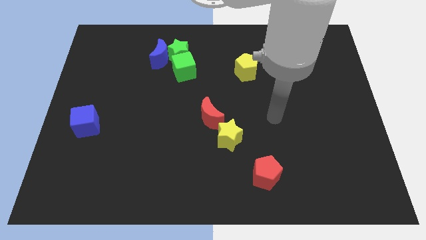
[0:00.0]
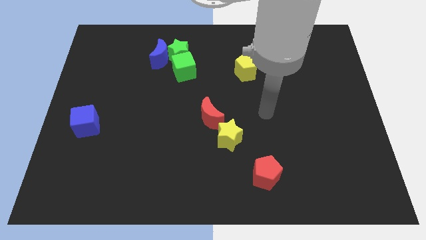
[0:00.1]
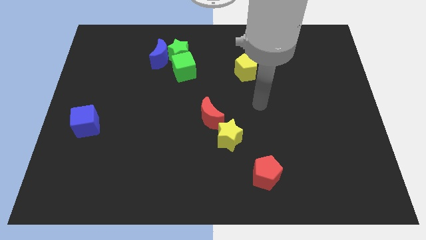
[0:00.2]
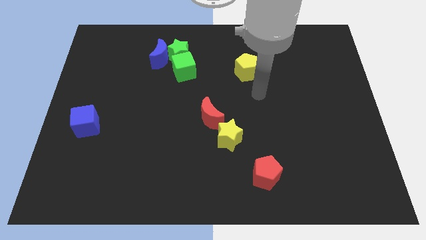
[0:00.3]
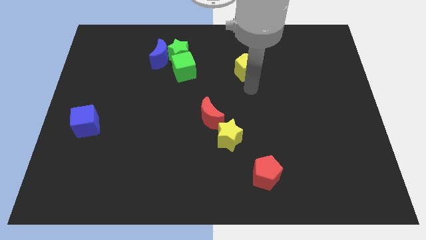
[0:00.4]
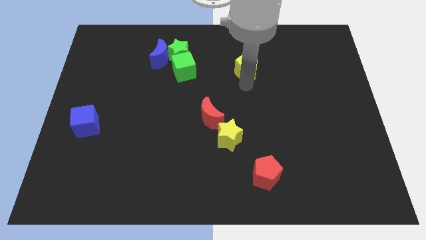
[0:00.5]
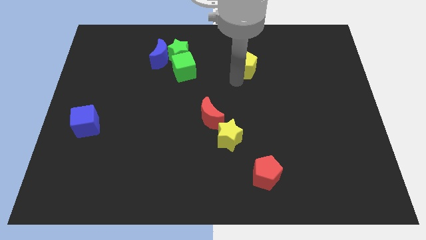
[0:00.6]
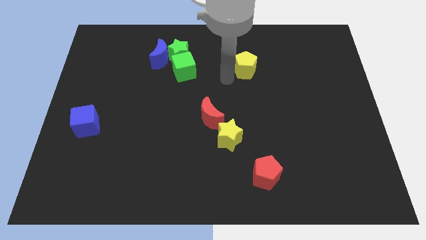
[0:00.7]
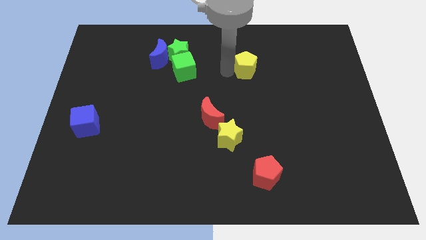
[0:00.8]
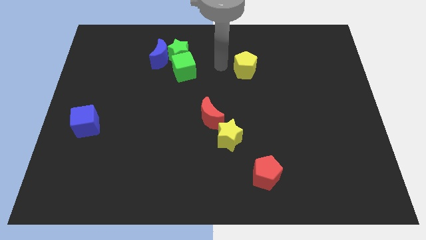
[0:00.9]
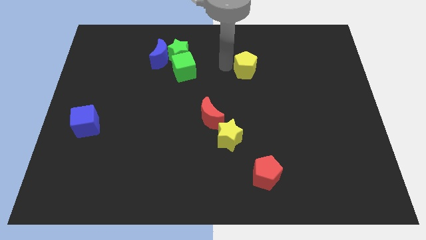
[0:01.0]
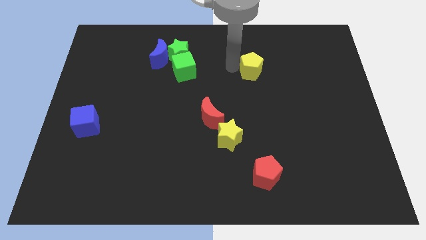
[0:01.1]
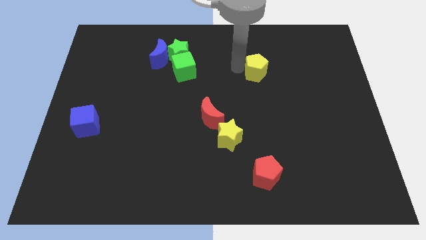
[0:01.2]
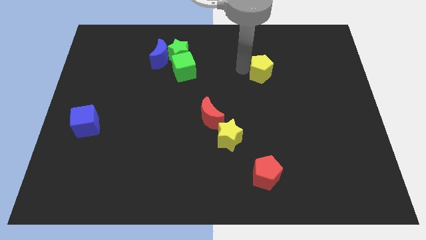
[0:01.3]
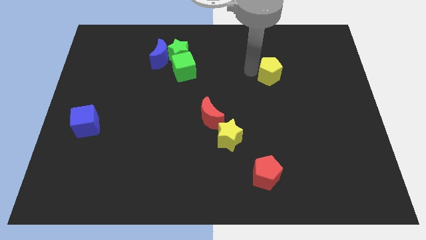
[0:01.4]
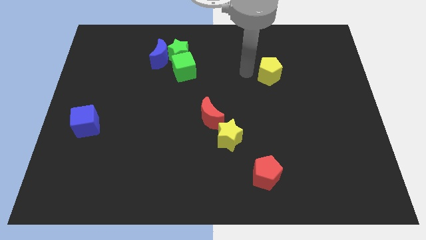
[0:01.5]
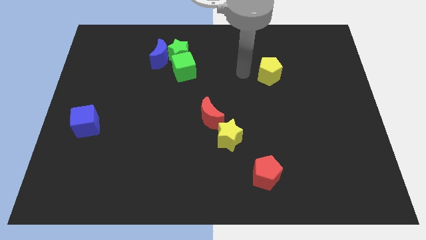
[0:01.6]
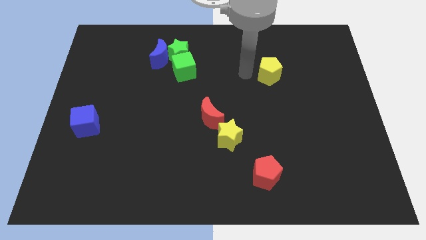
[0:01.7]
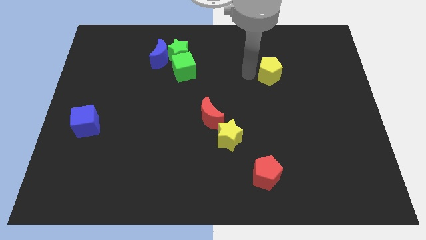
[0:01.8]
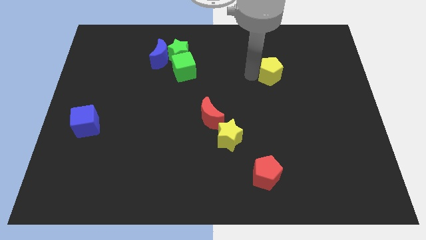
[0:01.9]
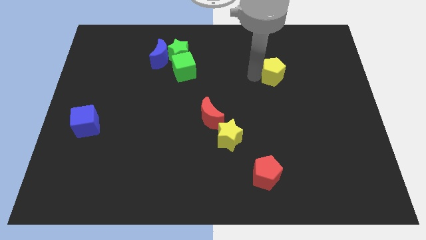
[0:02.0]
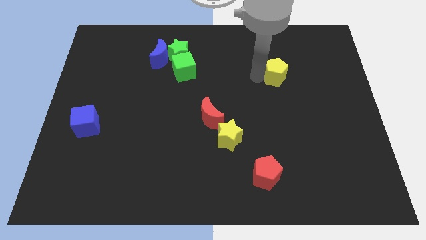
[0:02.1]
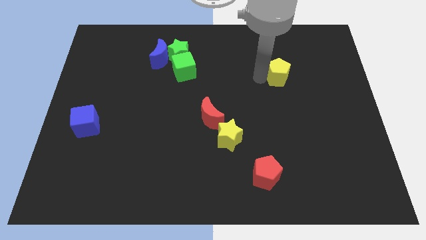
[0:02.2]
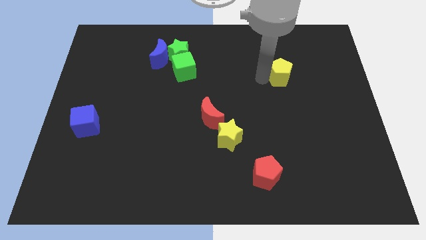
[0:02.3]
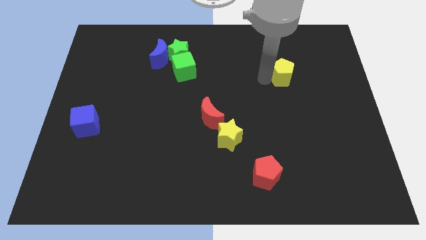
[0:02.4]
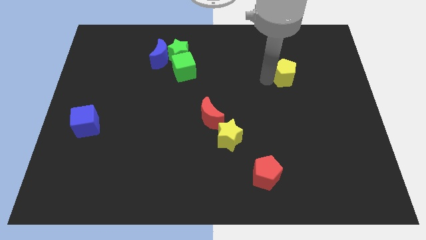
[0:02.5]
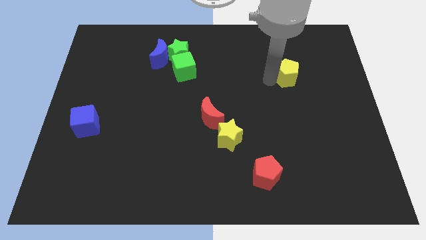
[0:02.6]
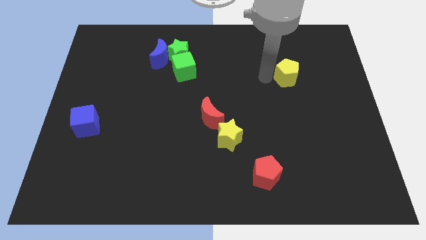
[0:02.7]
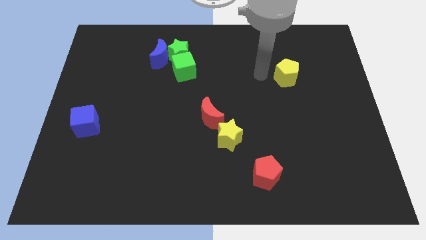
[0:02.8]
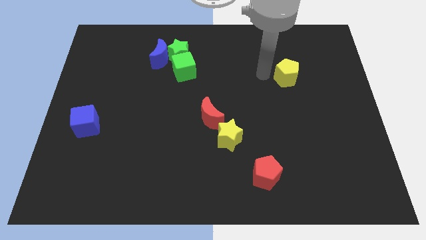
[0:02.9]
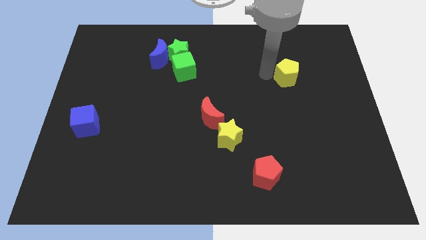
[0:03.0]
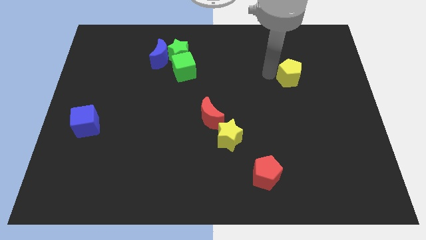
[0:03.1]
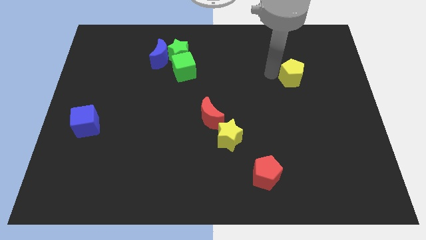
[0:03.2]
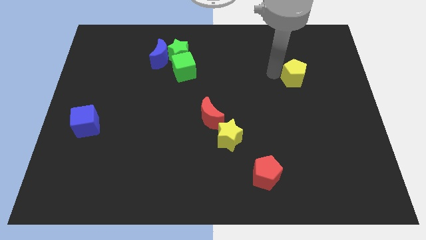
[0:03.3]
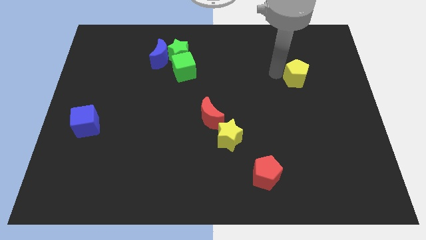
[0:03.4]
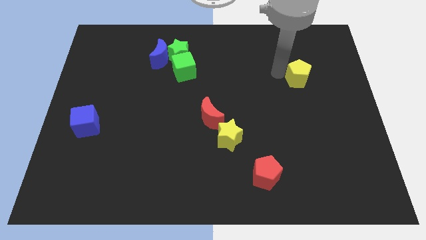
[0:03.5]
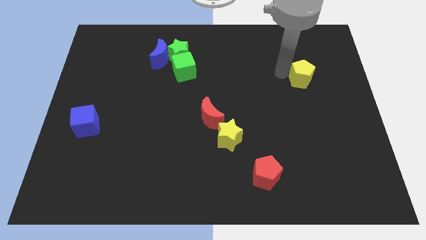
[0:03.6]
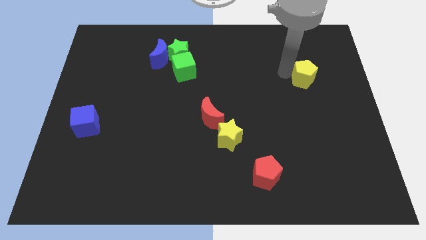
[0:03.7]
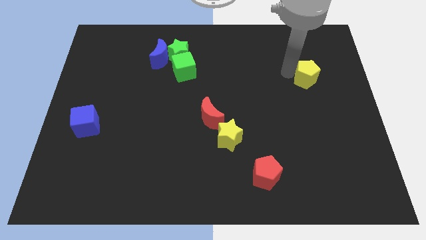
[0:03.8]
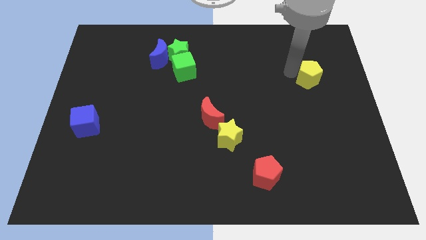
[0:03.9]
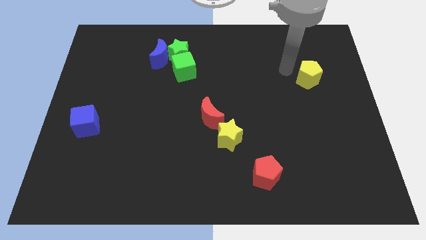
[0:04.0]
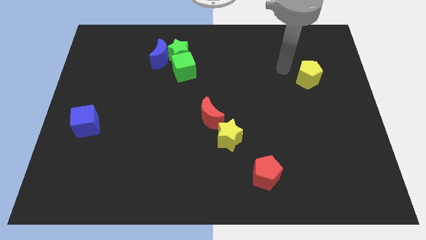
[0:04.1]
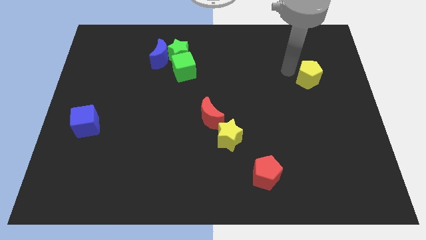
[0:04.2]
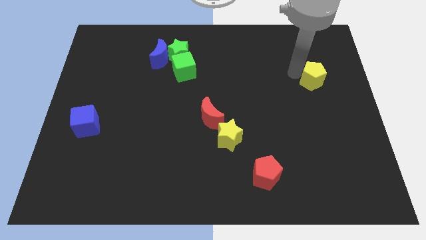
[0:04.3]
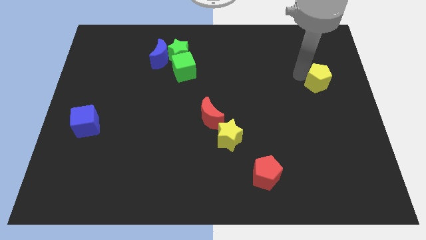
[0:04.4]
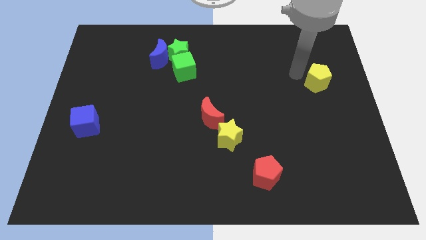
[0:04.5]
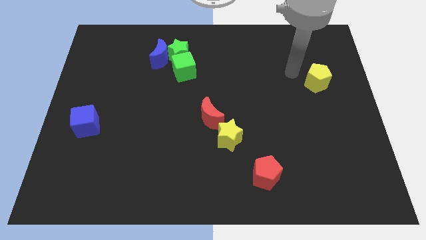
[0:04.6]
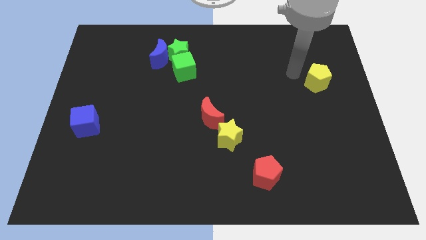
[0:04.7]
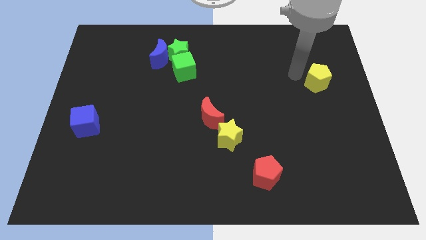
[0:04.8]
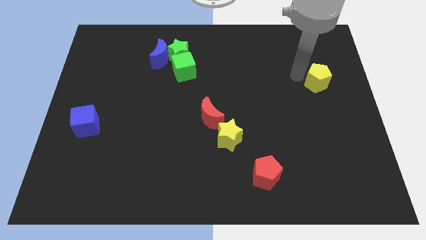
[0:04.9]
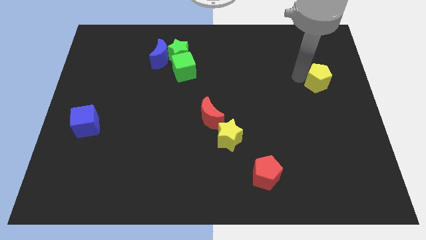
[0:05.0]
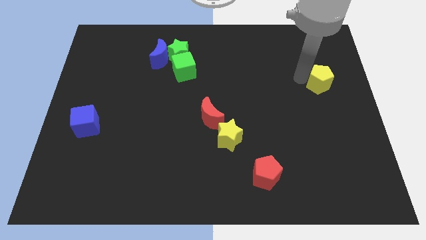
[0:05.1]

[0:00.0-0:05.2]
put the yellow pentagon to the right side of the board
